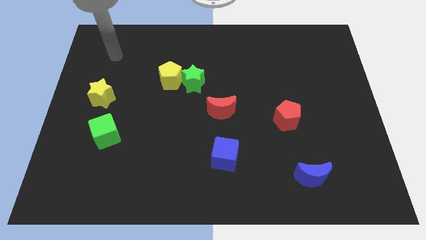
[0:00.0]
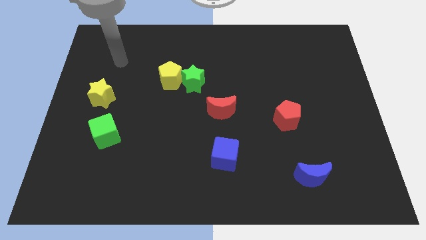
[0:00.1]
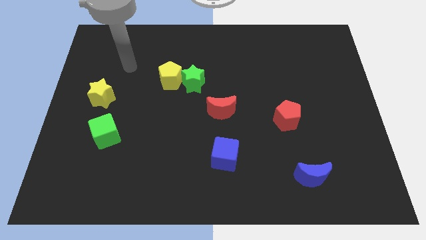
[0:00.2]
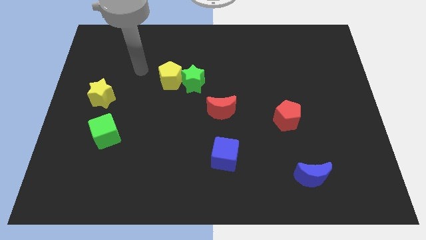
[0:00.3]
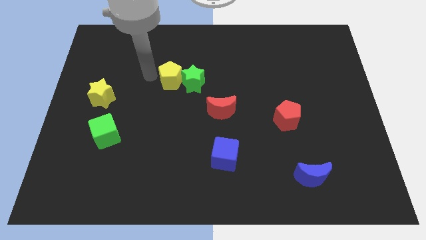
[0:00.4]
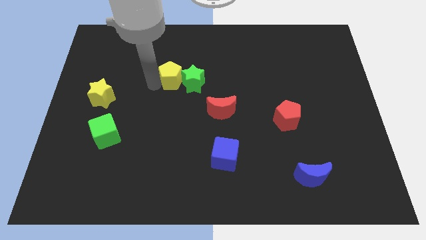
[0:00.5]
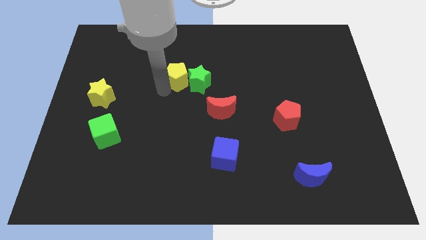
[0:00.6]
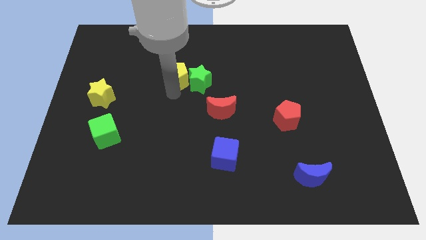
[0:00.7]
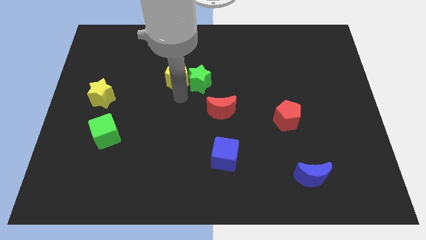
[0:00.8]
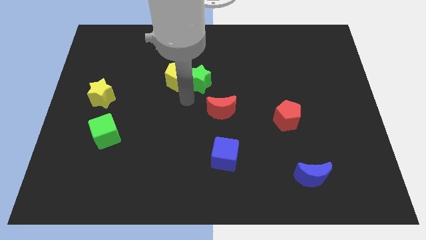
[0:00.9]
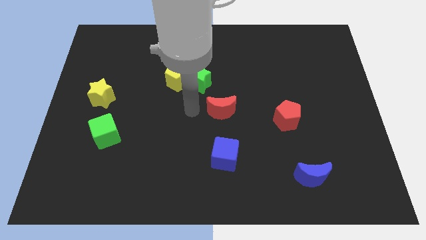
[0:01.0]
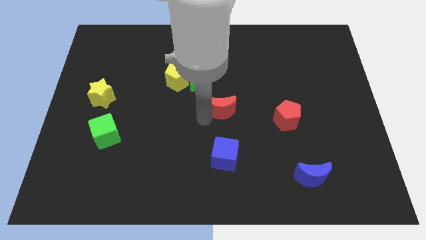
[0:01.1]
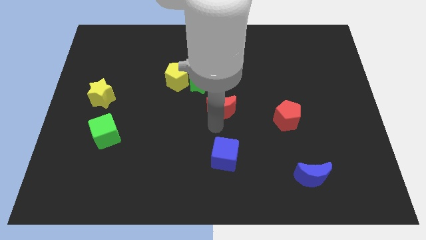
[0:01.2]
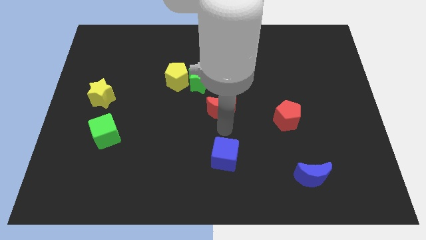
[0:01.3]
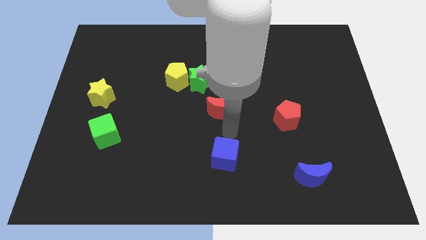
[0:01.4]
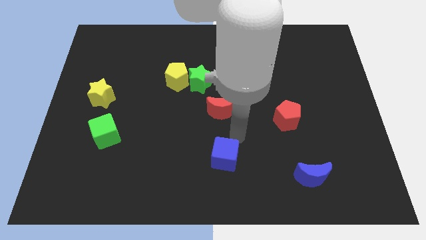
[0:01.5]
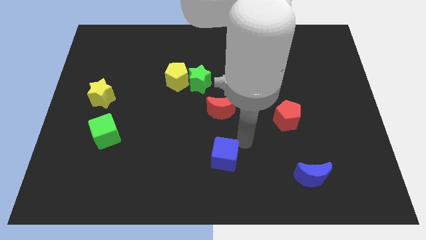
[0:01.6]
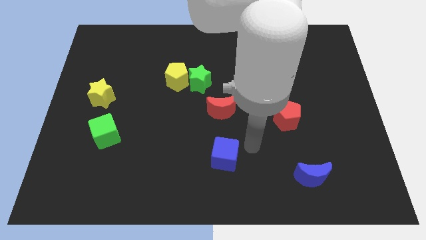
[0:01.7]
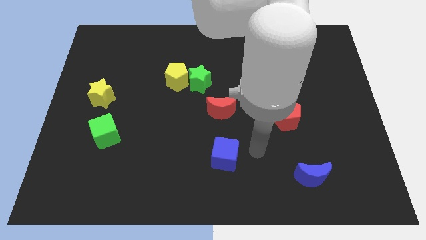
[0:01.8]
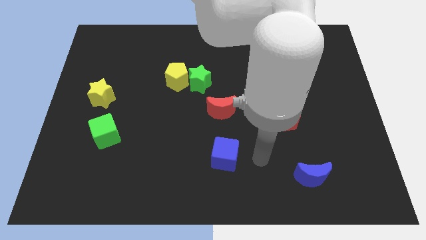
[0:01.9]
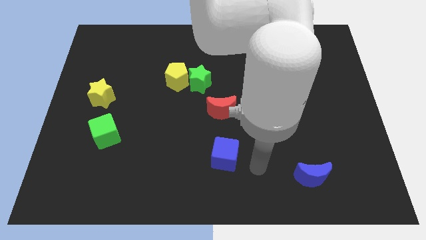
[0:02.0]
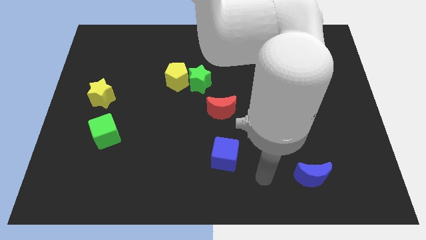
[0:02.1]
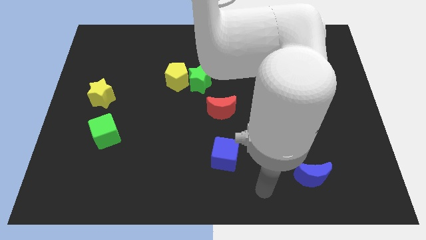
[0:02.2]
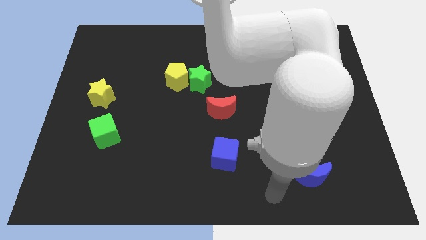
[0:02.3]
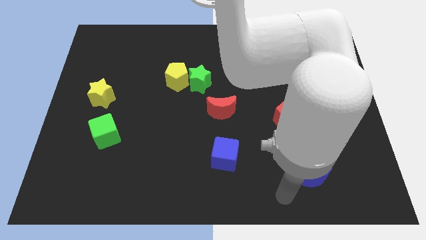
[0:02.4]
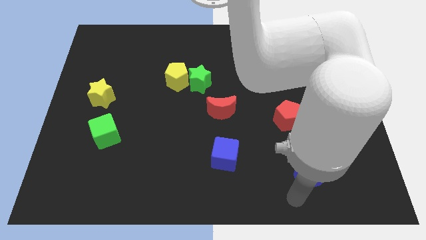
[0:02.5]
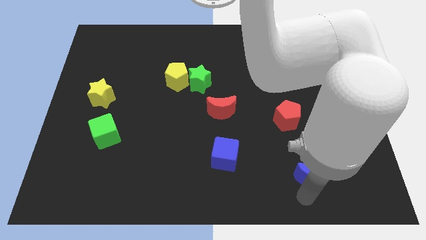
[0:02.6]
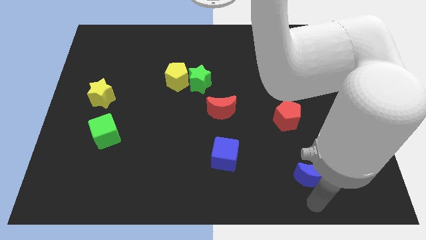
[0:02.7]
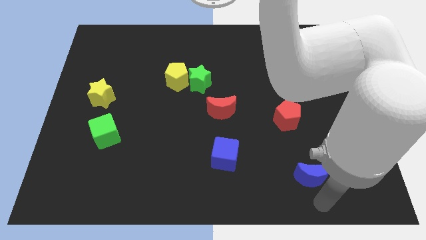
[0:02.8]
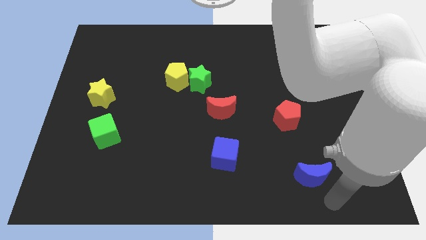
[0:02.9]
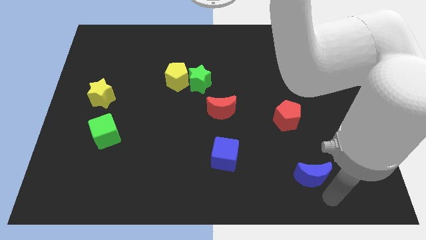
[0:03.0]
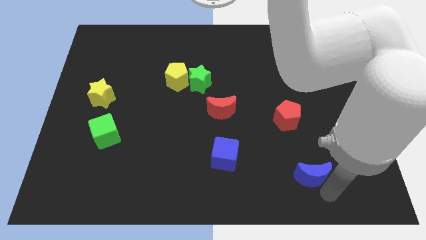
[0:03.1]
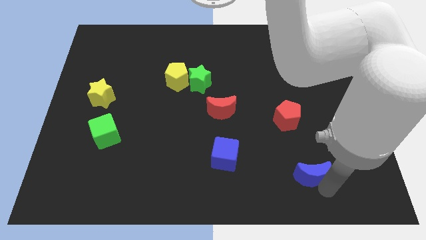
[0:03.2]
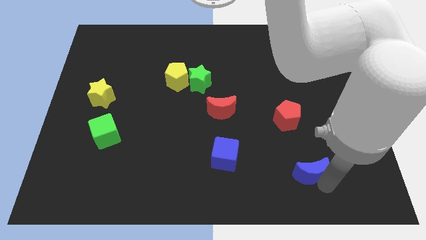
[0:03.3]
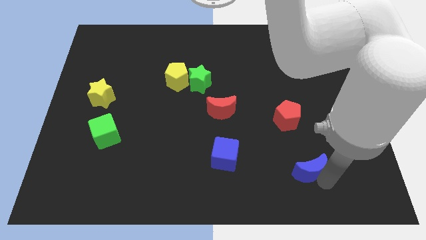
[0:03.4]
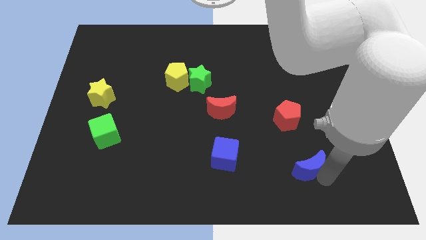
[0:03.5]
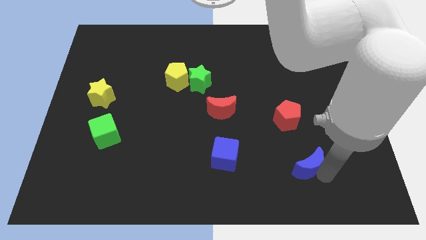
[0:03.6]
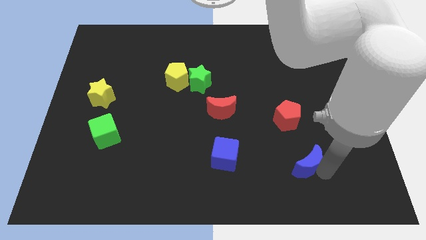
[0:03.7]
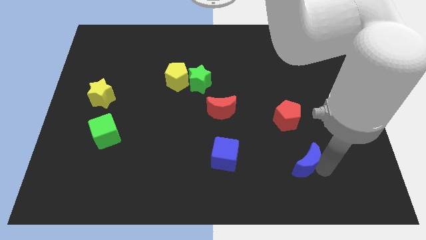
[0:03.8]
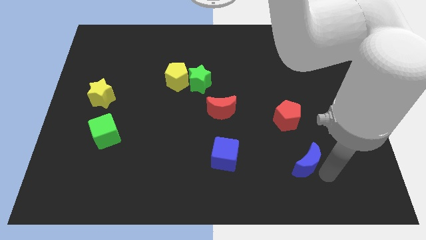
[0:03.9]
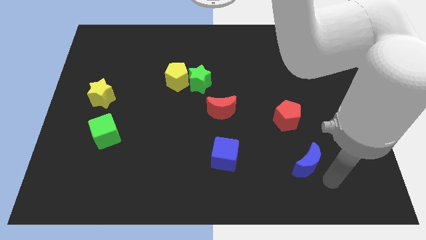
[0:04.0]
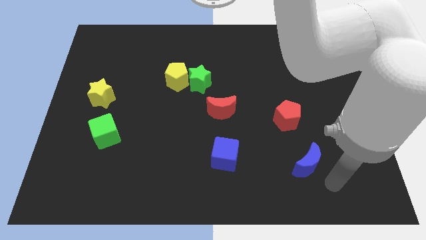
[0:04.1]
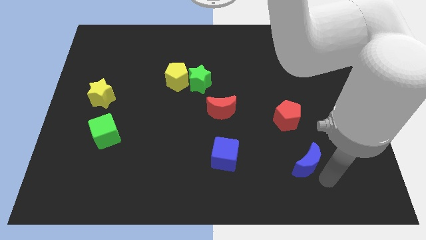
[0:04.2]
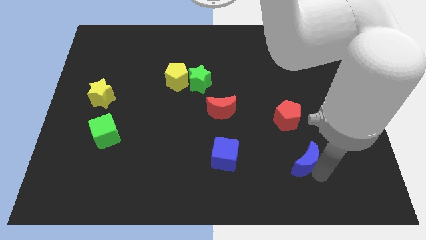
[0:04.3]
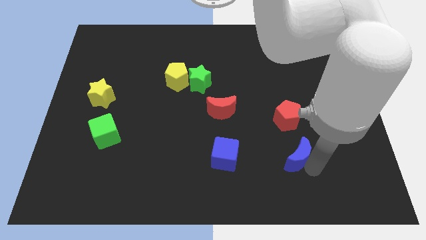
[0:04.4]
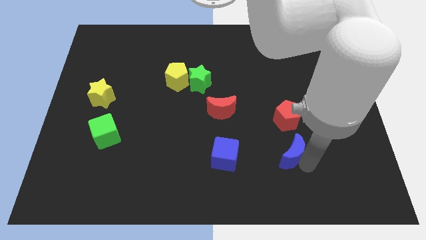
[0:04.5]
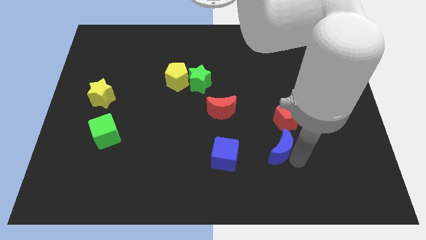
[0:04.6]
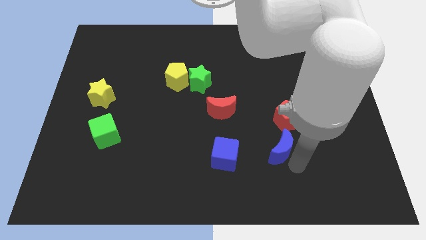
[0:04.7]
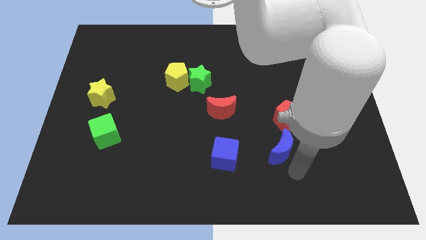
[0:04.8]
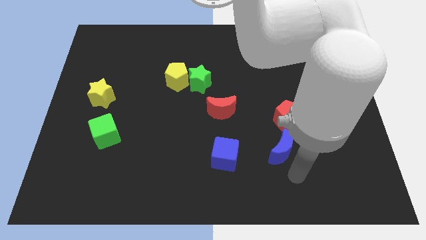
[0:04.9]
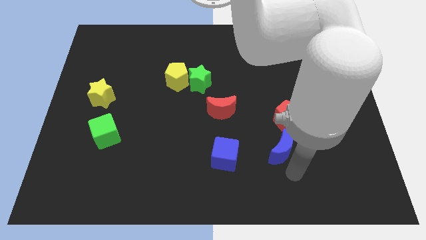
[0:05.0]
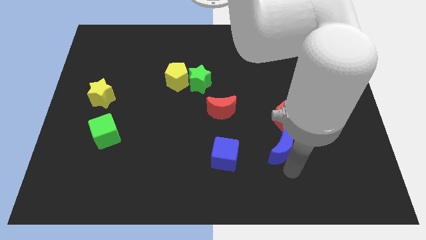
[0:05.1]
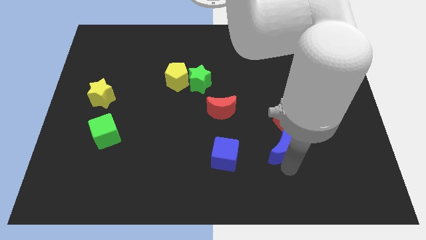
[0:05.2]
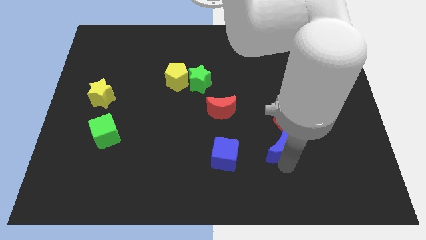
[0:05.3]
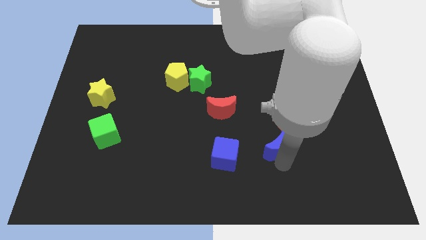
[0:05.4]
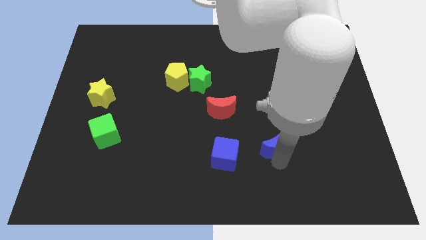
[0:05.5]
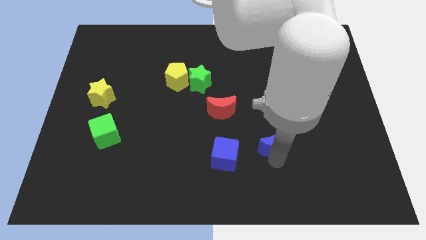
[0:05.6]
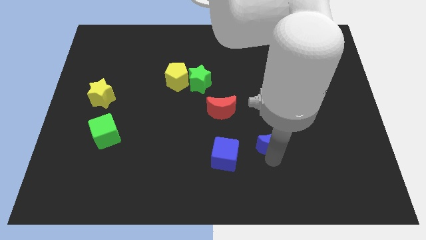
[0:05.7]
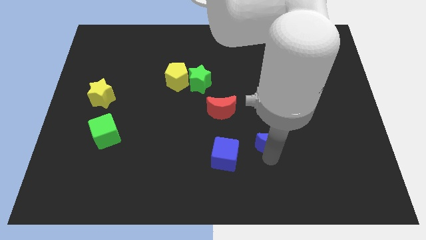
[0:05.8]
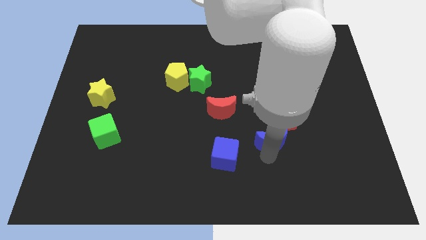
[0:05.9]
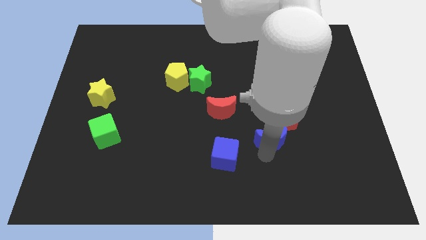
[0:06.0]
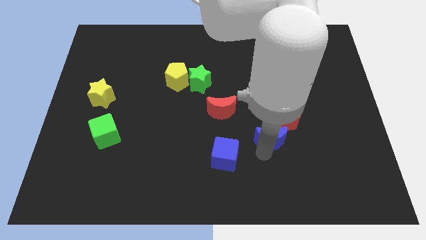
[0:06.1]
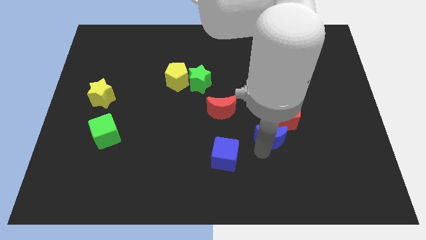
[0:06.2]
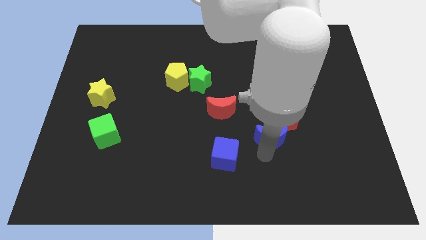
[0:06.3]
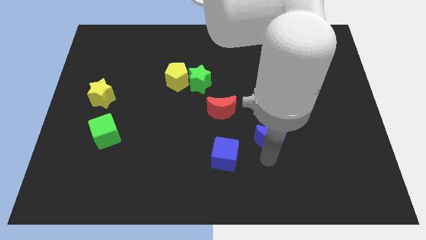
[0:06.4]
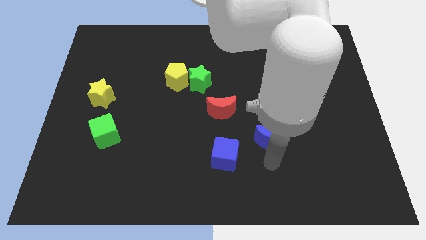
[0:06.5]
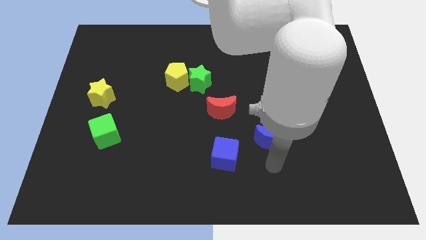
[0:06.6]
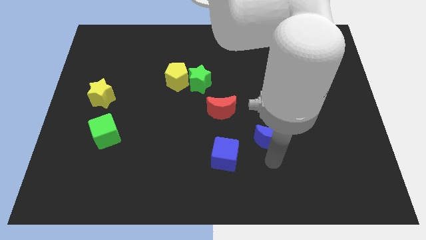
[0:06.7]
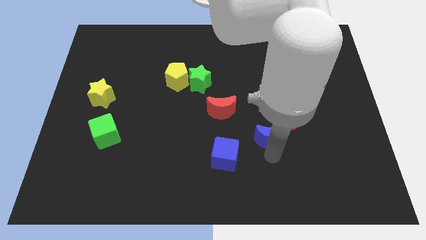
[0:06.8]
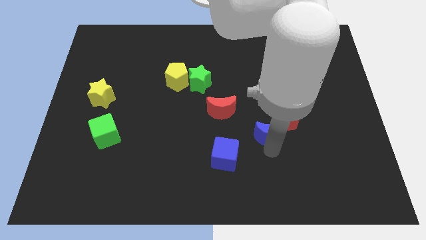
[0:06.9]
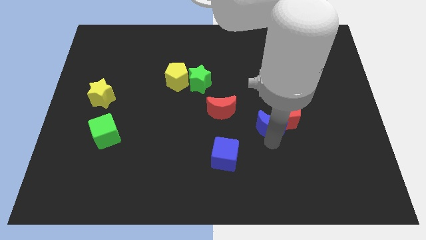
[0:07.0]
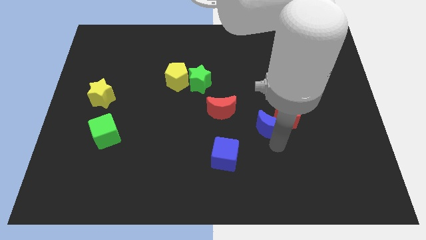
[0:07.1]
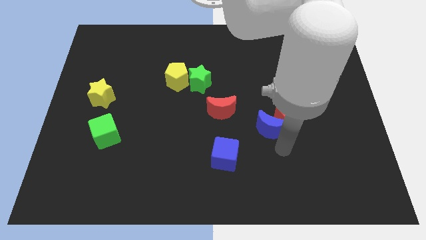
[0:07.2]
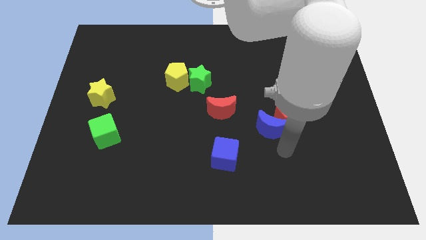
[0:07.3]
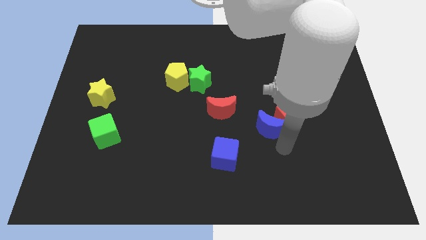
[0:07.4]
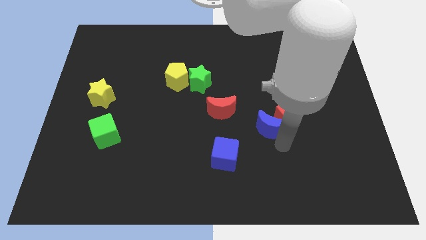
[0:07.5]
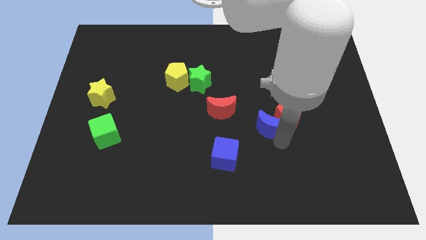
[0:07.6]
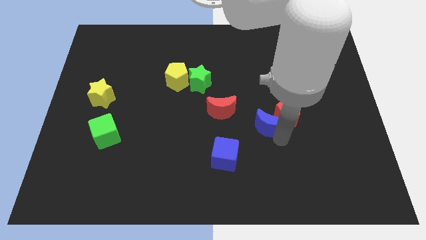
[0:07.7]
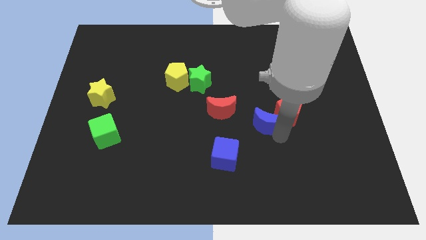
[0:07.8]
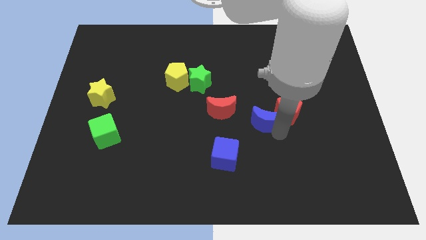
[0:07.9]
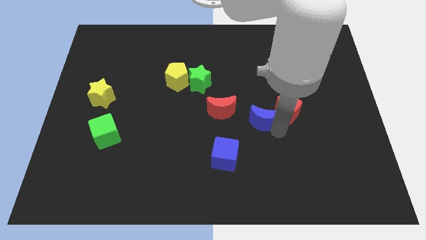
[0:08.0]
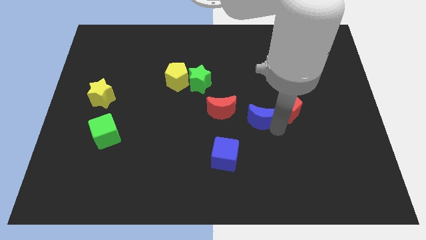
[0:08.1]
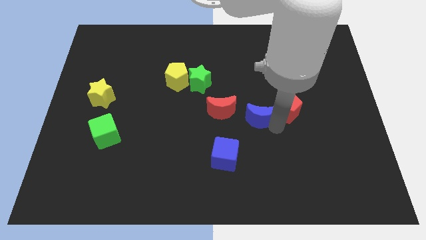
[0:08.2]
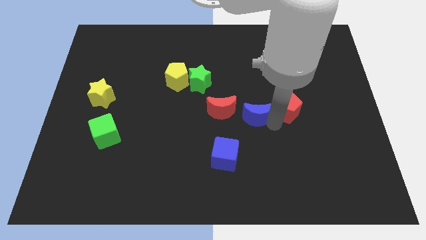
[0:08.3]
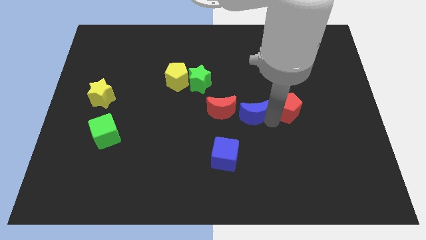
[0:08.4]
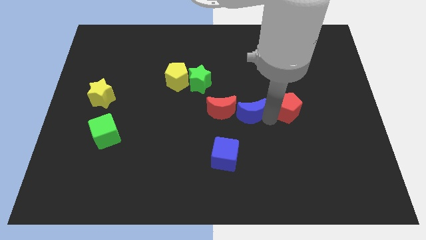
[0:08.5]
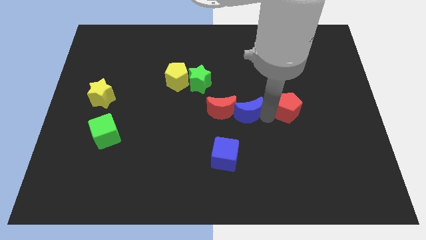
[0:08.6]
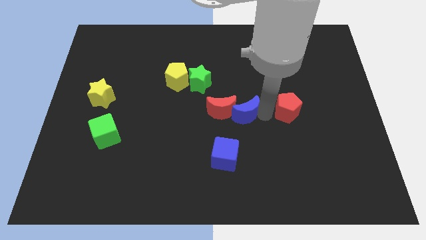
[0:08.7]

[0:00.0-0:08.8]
push the blue moon diagonally up and to the right of the red moon
